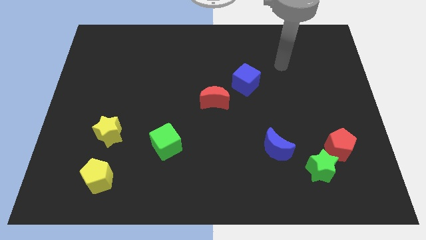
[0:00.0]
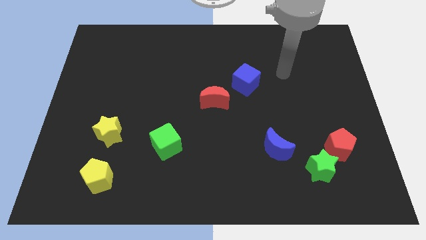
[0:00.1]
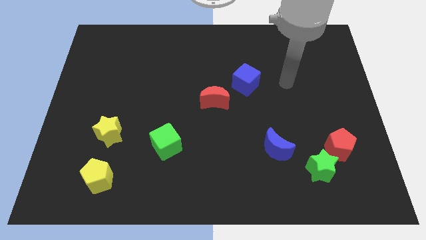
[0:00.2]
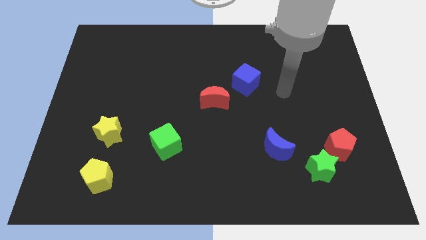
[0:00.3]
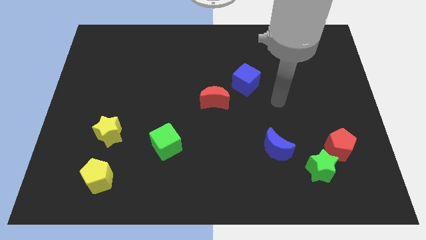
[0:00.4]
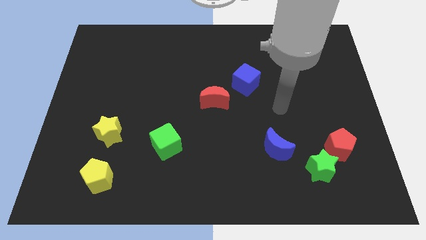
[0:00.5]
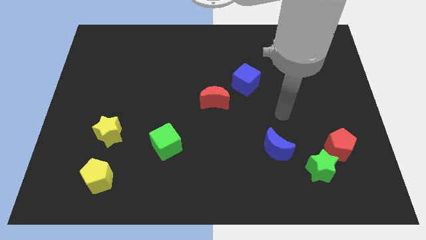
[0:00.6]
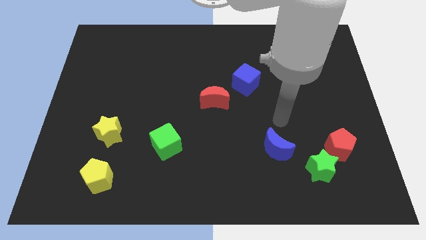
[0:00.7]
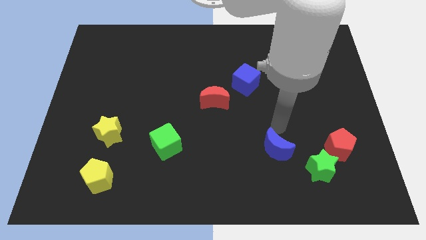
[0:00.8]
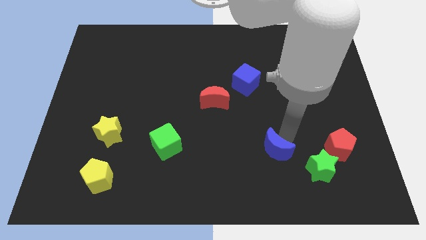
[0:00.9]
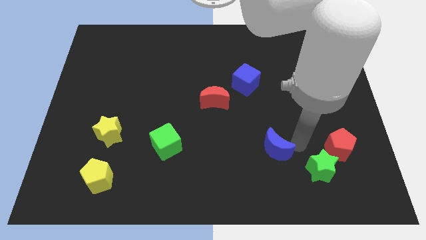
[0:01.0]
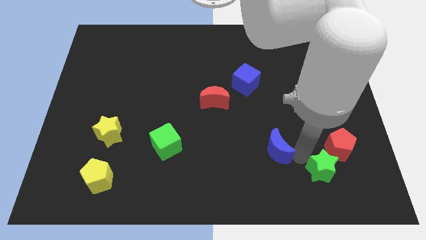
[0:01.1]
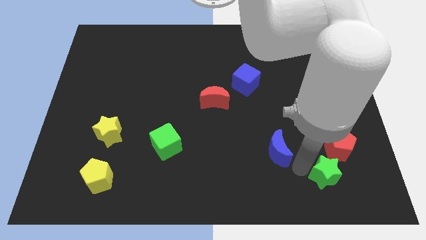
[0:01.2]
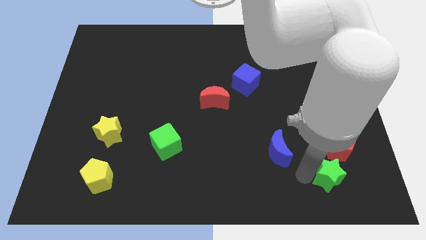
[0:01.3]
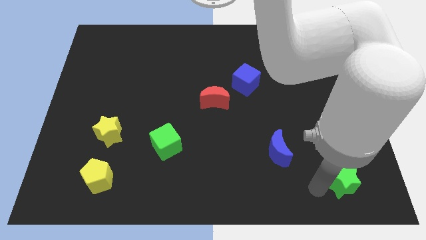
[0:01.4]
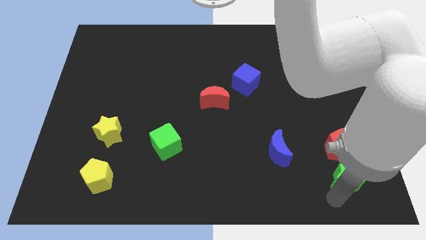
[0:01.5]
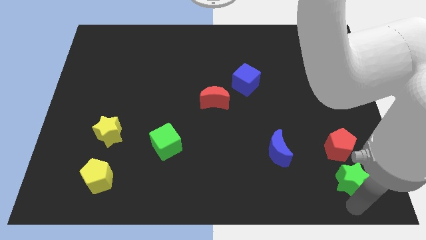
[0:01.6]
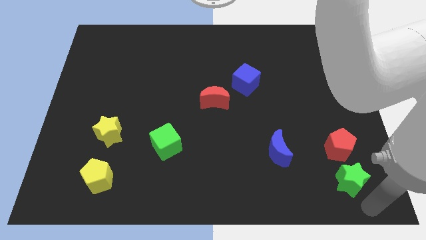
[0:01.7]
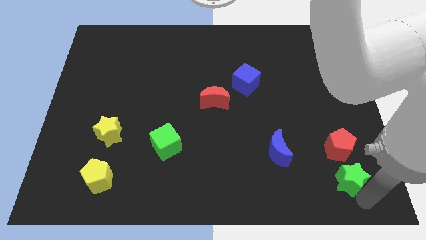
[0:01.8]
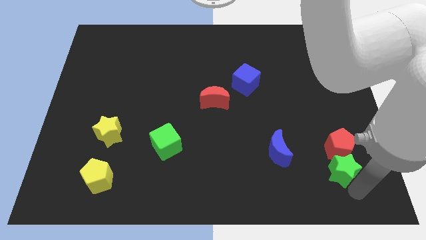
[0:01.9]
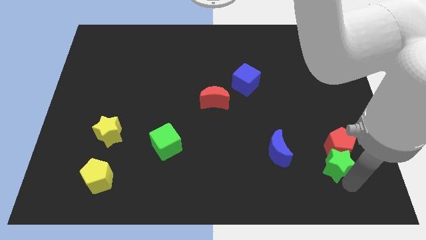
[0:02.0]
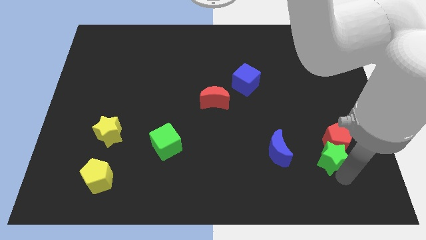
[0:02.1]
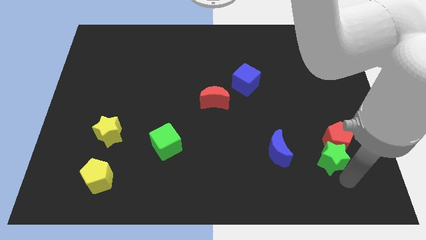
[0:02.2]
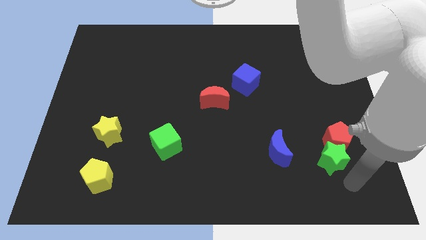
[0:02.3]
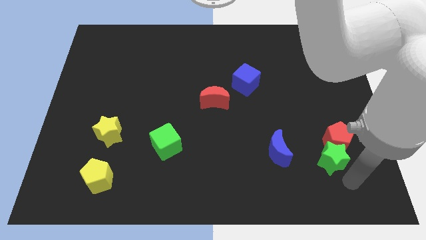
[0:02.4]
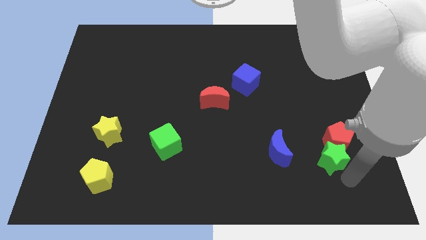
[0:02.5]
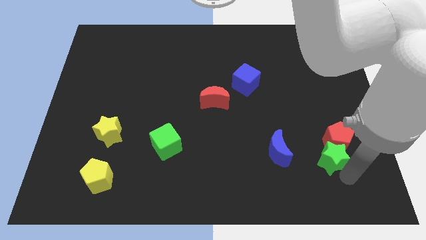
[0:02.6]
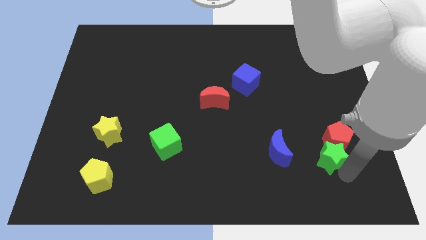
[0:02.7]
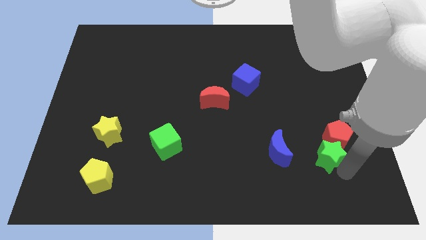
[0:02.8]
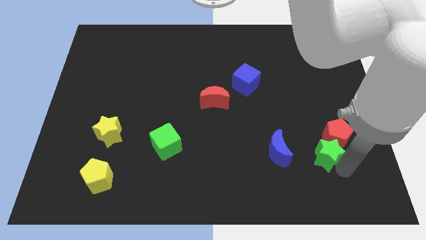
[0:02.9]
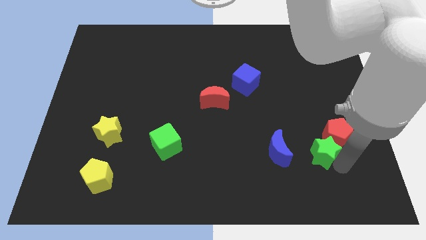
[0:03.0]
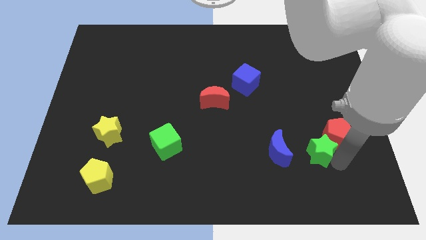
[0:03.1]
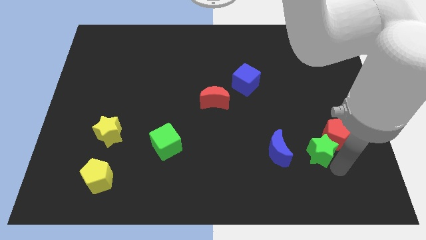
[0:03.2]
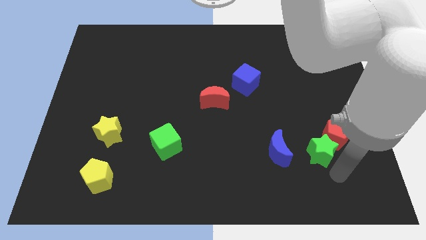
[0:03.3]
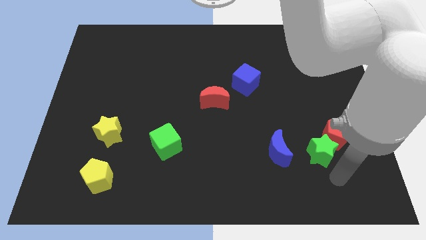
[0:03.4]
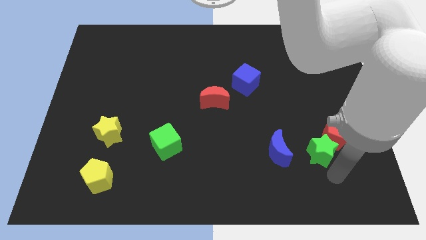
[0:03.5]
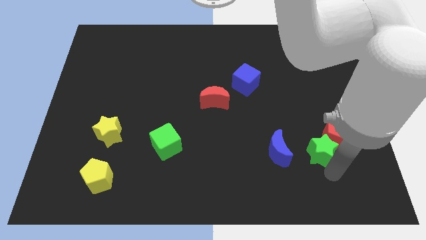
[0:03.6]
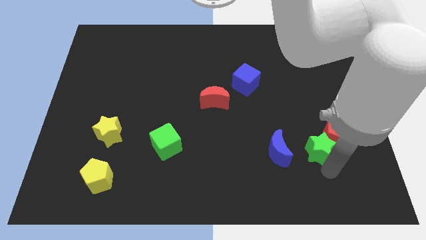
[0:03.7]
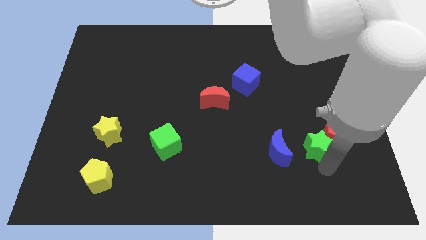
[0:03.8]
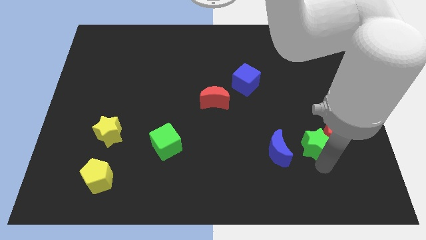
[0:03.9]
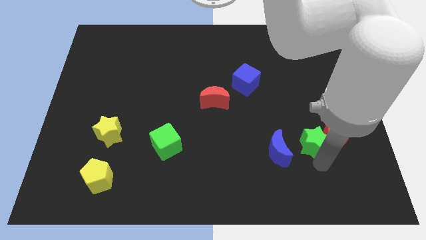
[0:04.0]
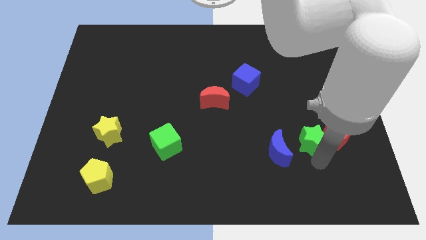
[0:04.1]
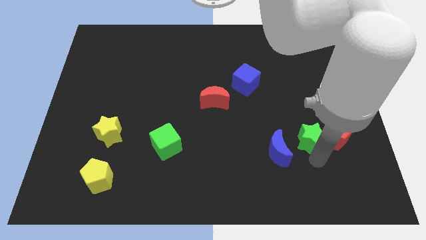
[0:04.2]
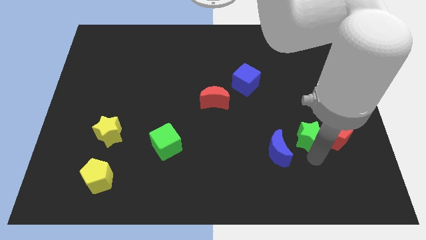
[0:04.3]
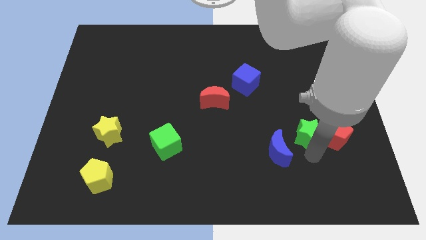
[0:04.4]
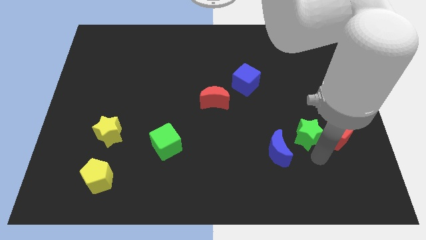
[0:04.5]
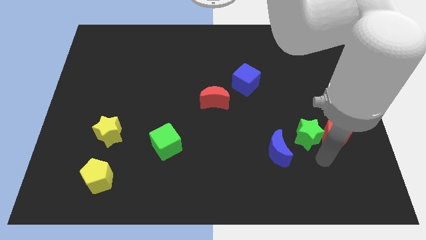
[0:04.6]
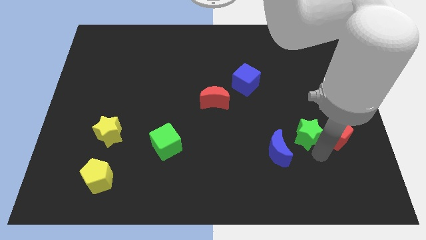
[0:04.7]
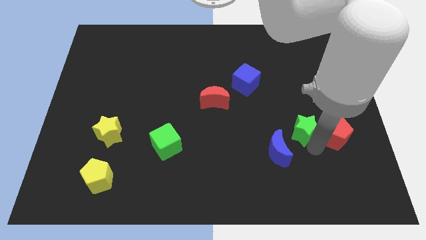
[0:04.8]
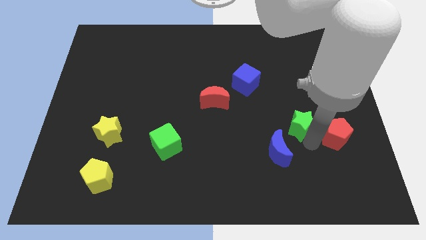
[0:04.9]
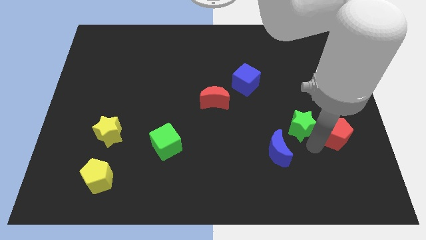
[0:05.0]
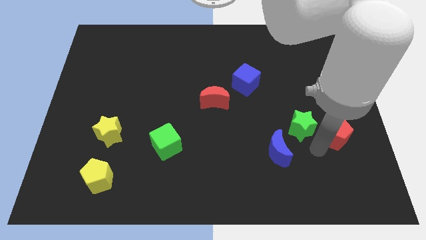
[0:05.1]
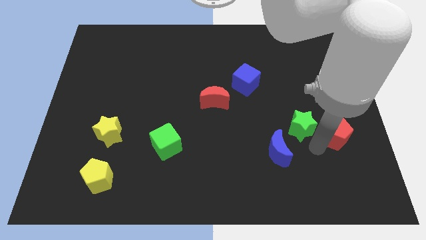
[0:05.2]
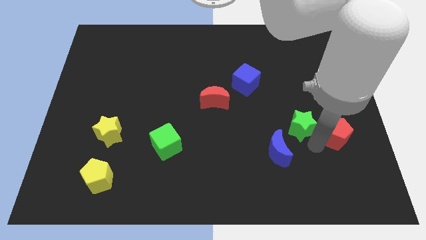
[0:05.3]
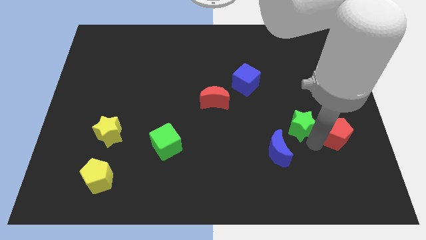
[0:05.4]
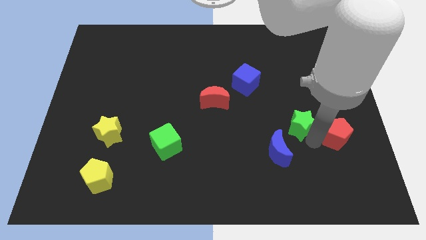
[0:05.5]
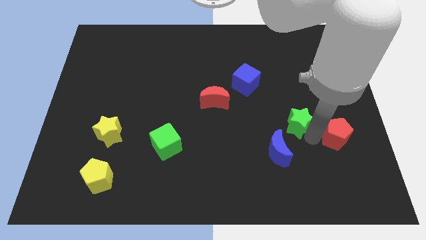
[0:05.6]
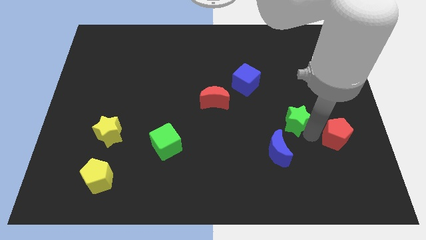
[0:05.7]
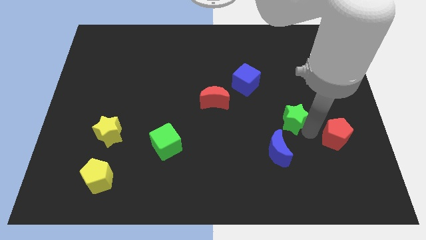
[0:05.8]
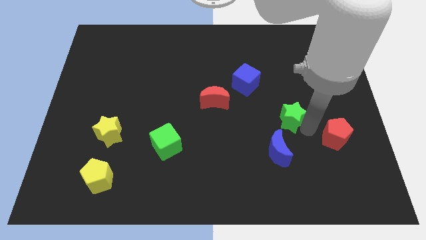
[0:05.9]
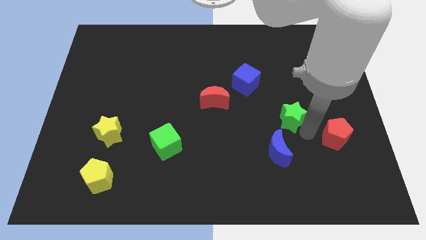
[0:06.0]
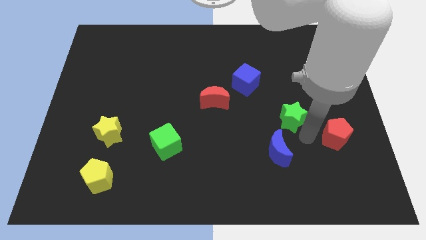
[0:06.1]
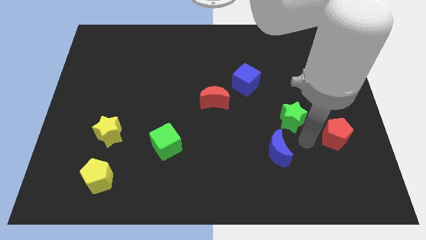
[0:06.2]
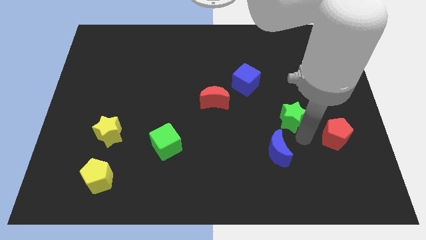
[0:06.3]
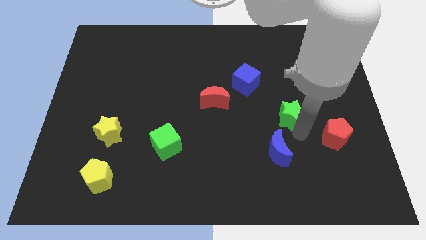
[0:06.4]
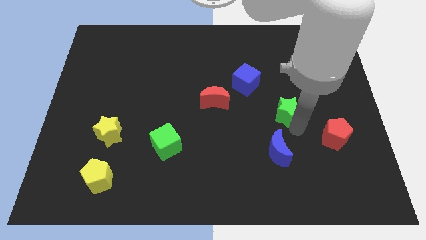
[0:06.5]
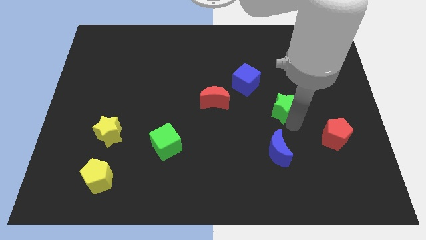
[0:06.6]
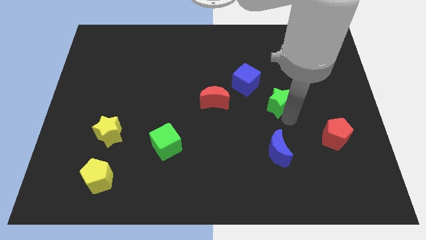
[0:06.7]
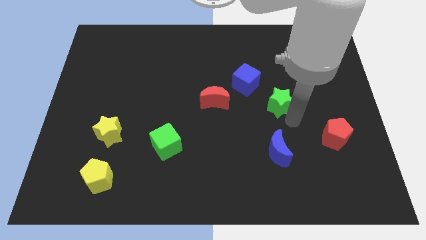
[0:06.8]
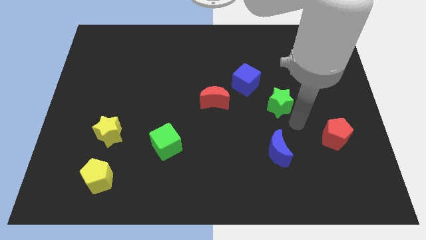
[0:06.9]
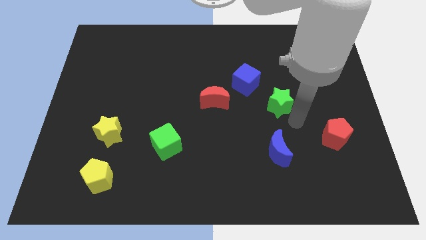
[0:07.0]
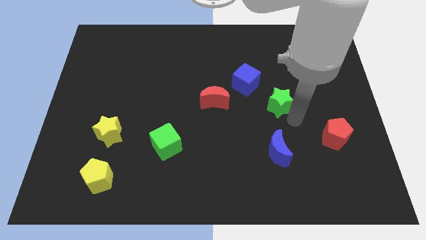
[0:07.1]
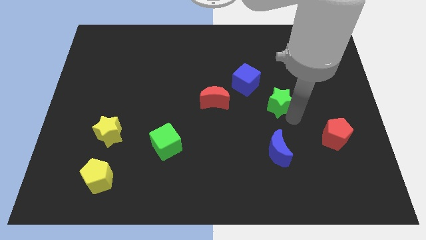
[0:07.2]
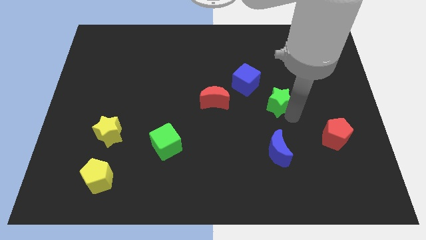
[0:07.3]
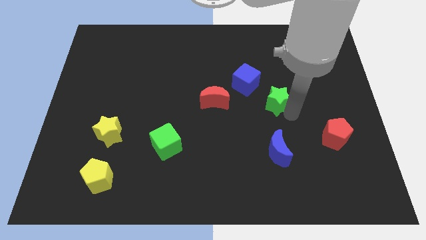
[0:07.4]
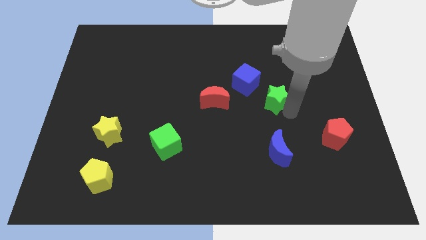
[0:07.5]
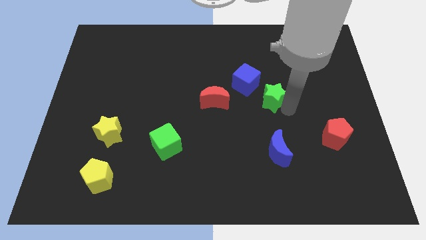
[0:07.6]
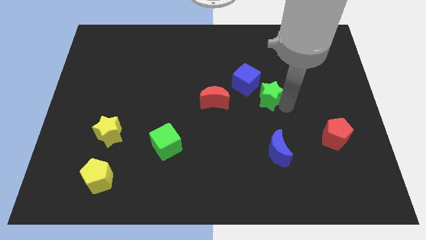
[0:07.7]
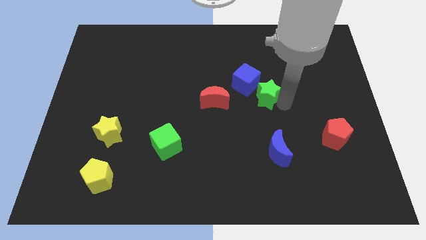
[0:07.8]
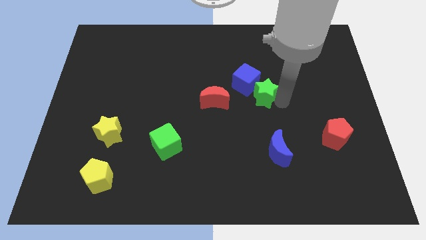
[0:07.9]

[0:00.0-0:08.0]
move the green star to the blue cube
